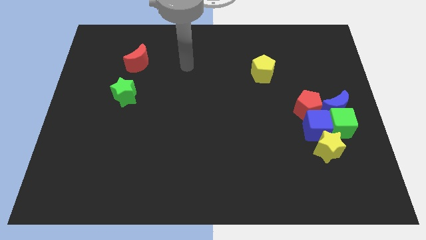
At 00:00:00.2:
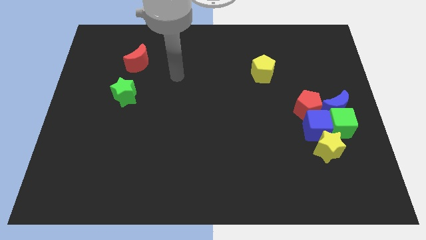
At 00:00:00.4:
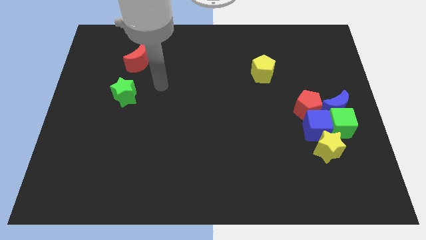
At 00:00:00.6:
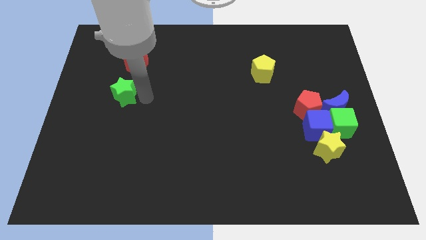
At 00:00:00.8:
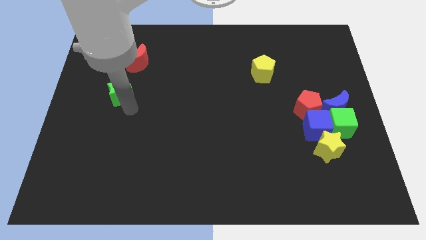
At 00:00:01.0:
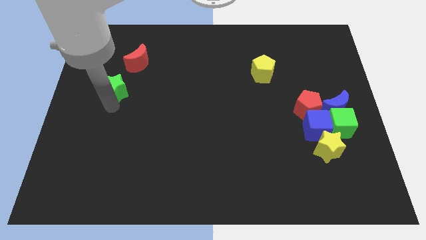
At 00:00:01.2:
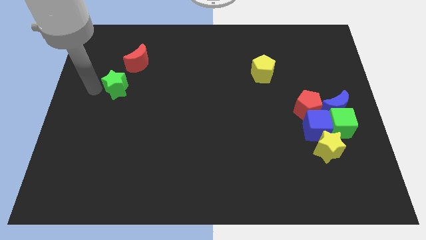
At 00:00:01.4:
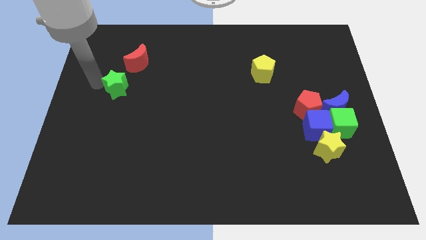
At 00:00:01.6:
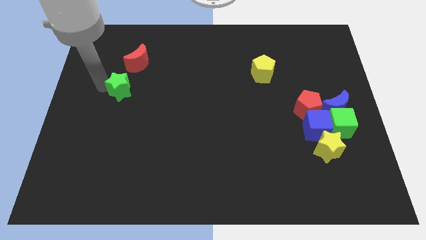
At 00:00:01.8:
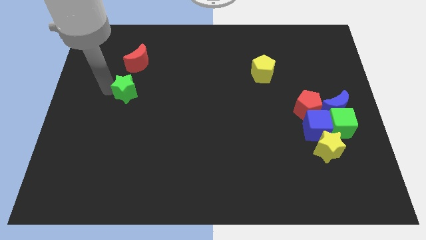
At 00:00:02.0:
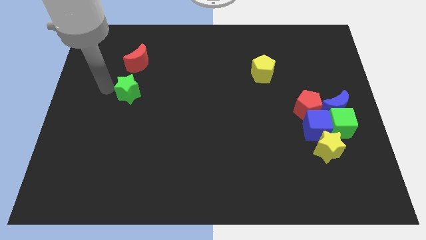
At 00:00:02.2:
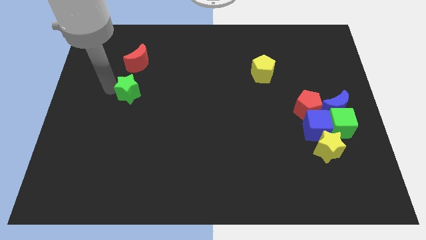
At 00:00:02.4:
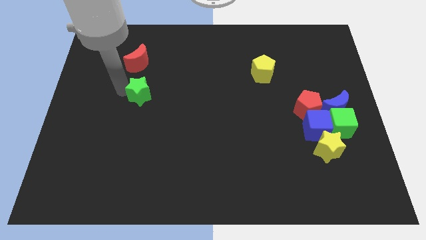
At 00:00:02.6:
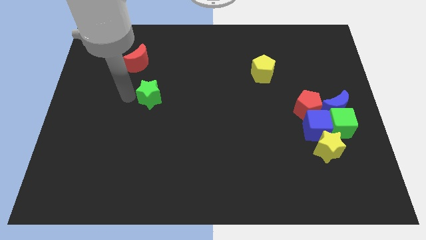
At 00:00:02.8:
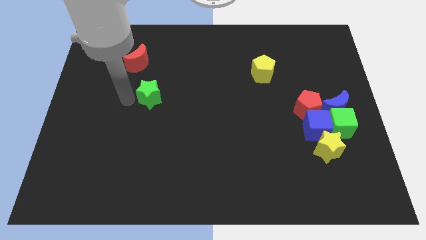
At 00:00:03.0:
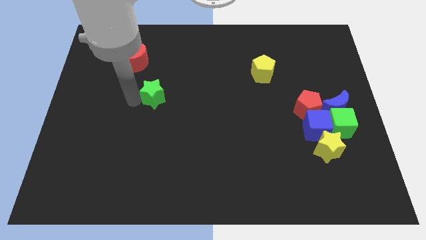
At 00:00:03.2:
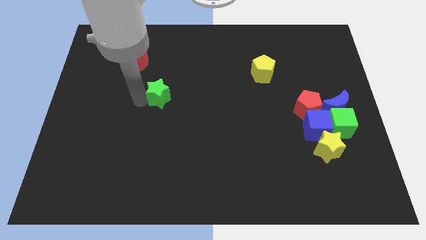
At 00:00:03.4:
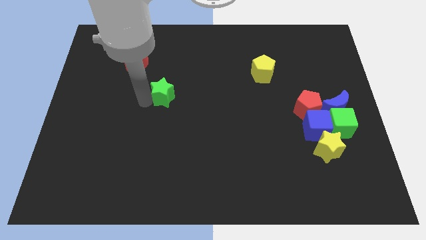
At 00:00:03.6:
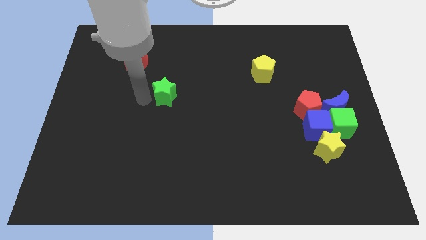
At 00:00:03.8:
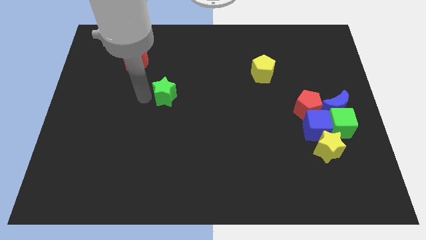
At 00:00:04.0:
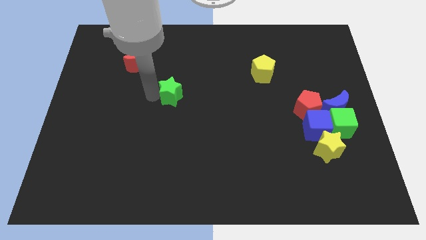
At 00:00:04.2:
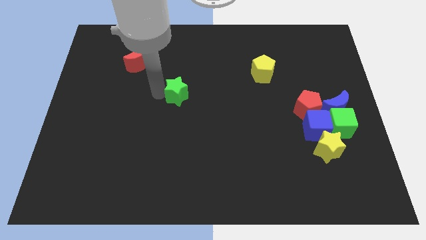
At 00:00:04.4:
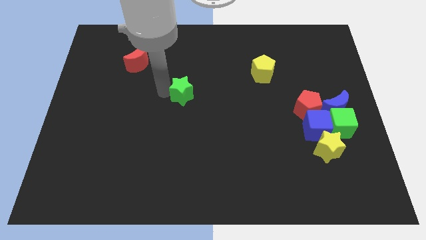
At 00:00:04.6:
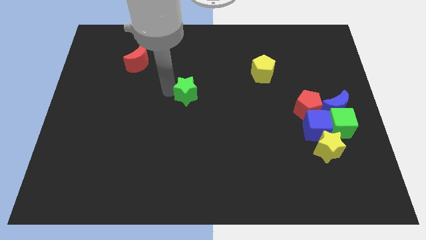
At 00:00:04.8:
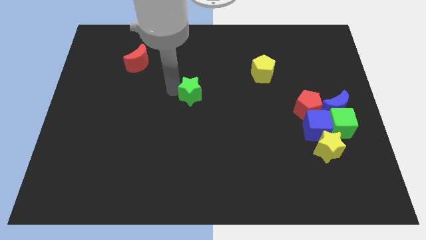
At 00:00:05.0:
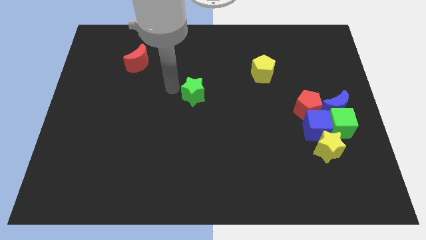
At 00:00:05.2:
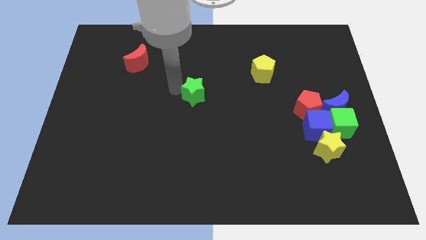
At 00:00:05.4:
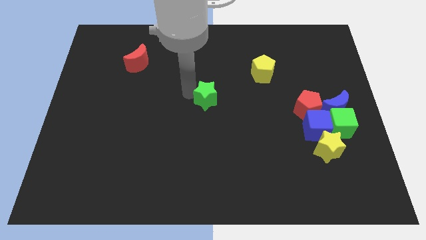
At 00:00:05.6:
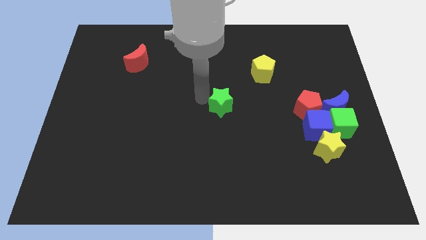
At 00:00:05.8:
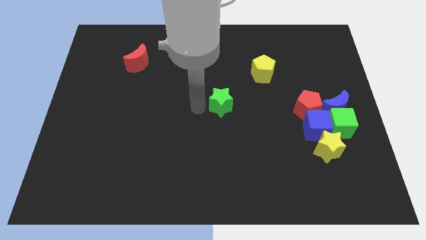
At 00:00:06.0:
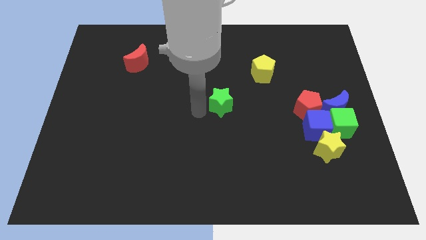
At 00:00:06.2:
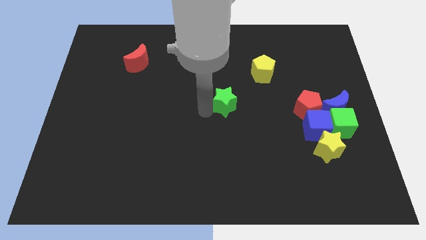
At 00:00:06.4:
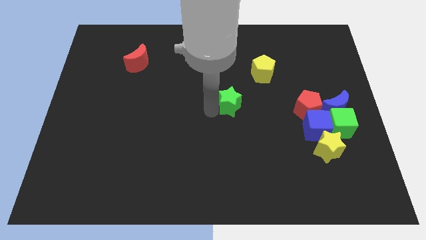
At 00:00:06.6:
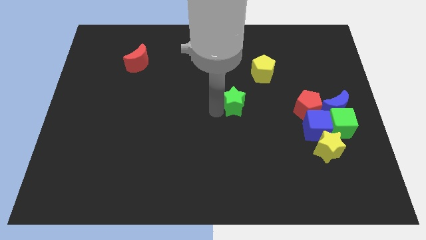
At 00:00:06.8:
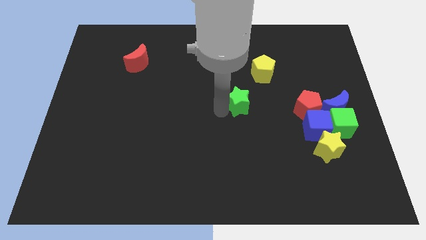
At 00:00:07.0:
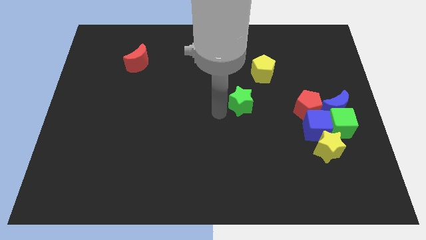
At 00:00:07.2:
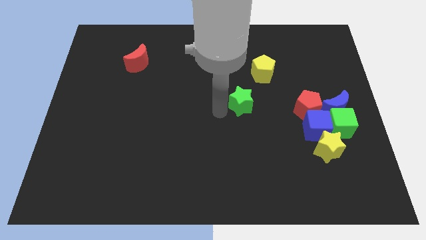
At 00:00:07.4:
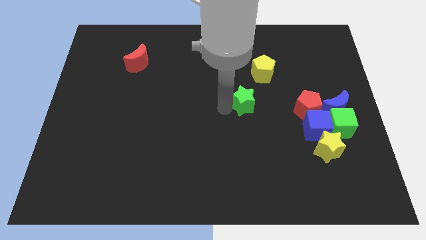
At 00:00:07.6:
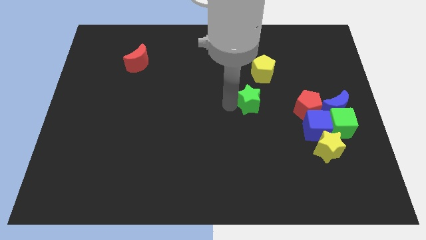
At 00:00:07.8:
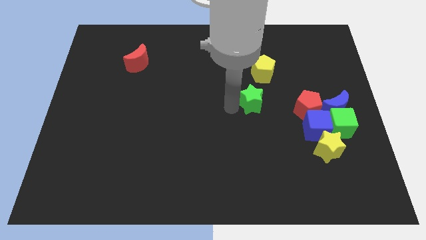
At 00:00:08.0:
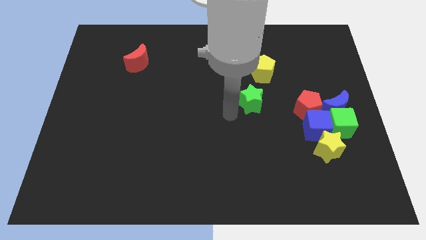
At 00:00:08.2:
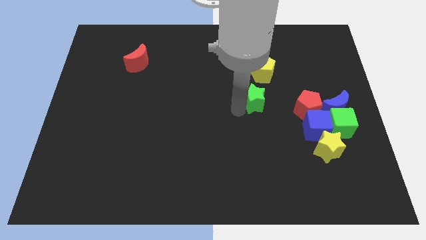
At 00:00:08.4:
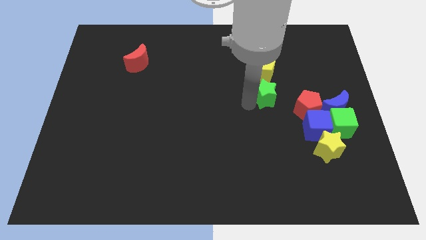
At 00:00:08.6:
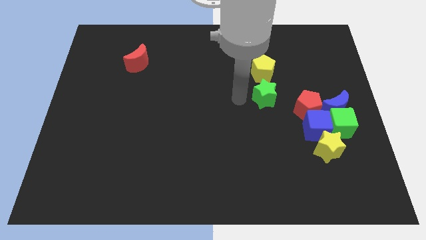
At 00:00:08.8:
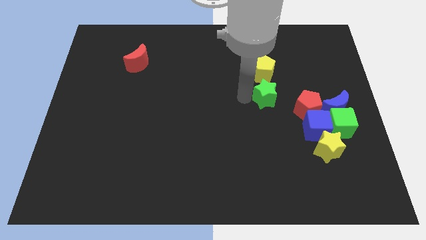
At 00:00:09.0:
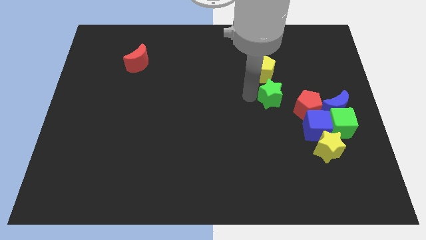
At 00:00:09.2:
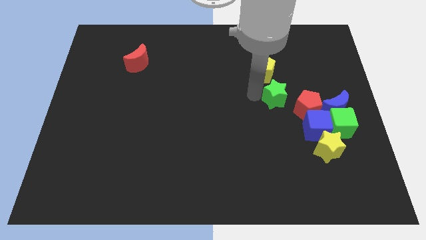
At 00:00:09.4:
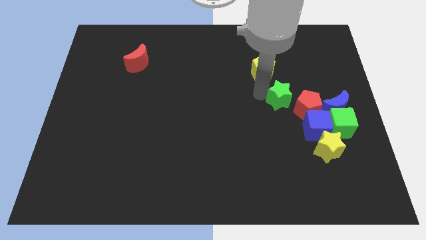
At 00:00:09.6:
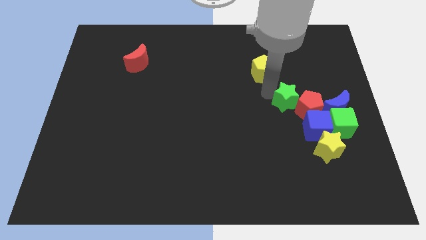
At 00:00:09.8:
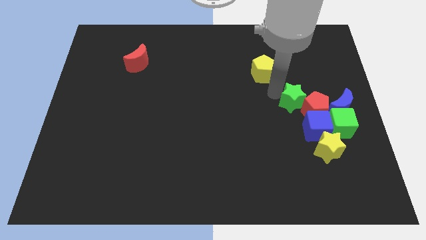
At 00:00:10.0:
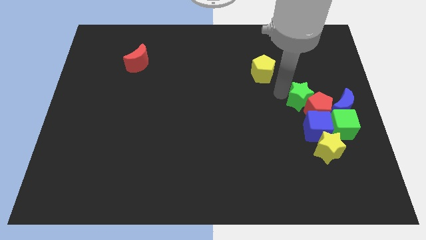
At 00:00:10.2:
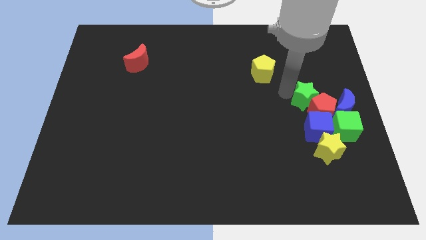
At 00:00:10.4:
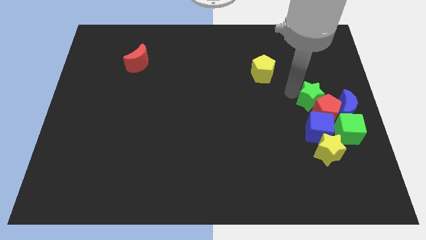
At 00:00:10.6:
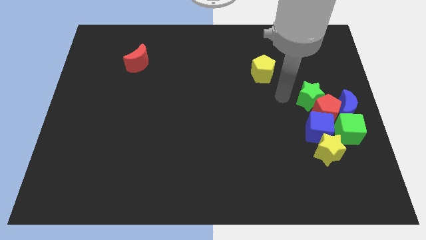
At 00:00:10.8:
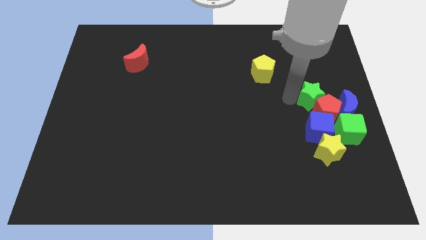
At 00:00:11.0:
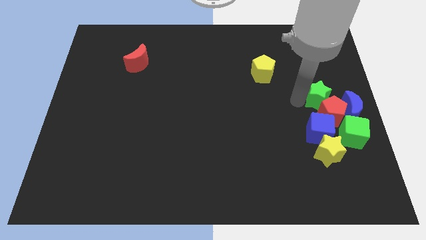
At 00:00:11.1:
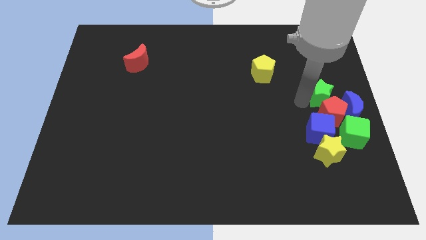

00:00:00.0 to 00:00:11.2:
move the green star to the right side of the board

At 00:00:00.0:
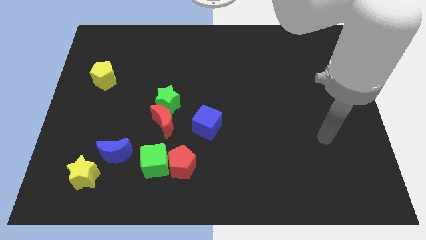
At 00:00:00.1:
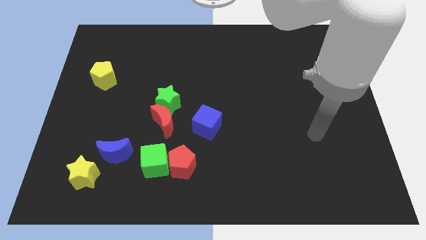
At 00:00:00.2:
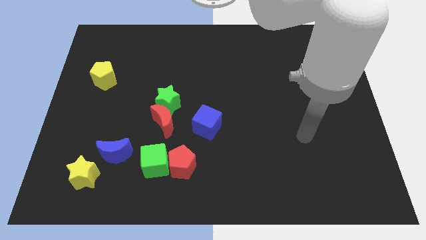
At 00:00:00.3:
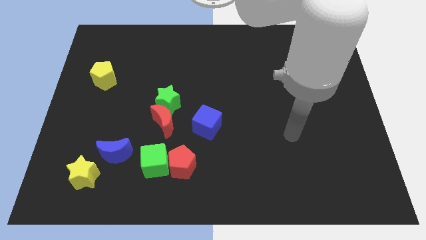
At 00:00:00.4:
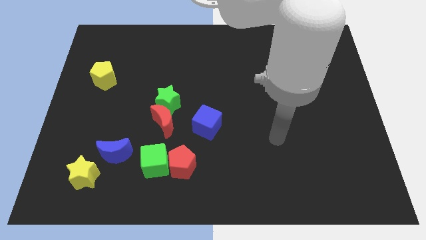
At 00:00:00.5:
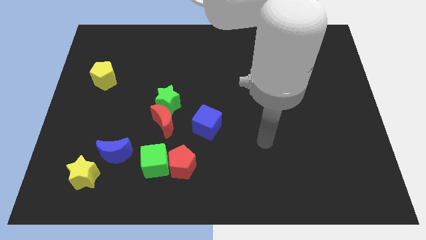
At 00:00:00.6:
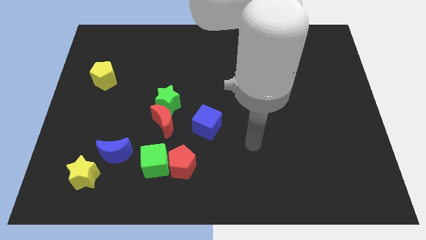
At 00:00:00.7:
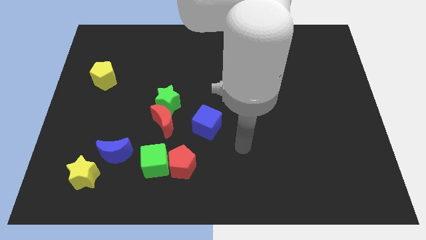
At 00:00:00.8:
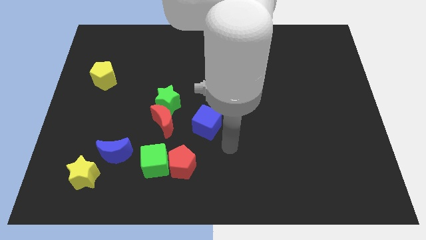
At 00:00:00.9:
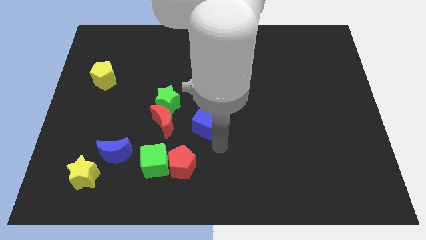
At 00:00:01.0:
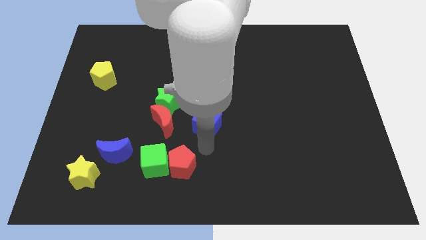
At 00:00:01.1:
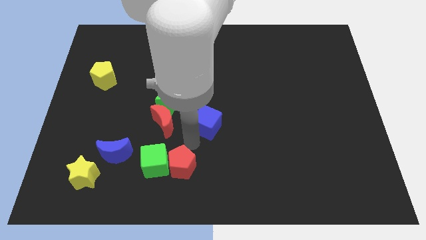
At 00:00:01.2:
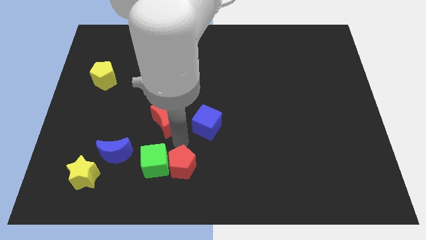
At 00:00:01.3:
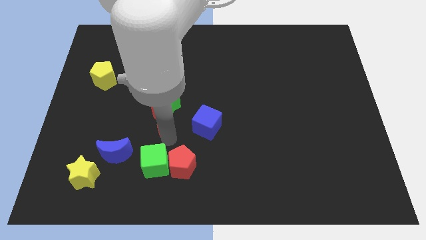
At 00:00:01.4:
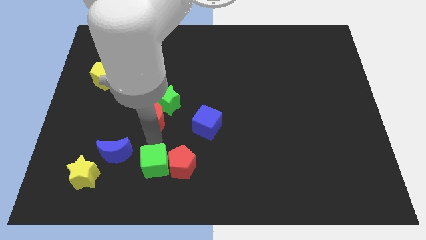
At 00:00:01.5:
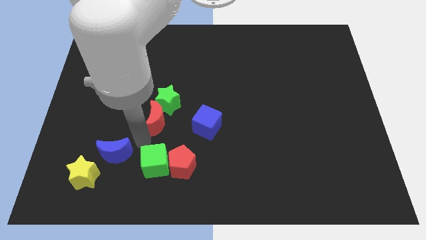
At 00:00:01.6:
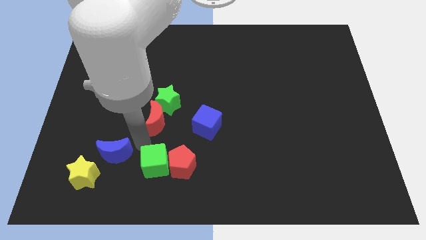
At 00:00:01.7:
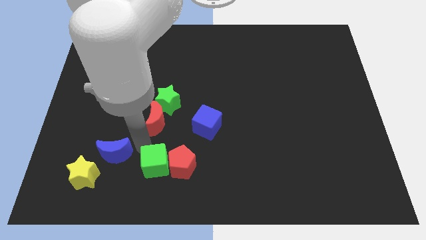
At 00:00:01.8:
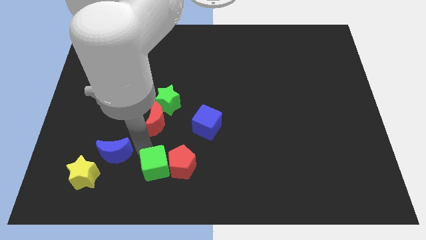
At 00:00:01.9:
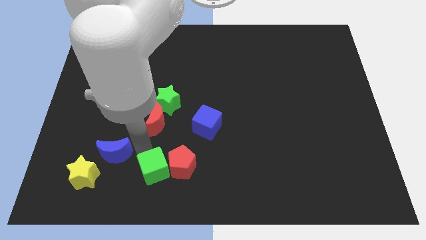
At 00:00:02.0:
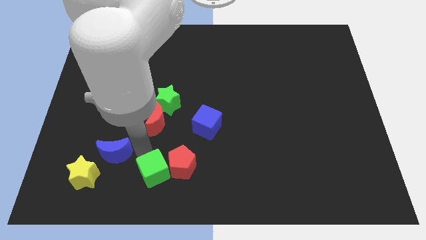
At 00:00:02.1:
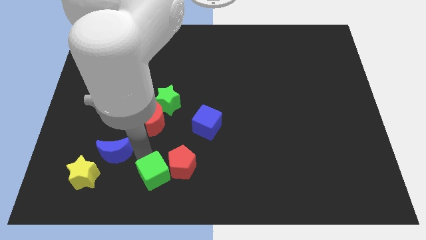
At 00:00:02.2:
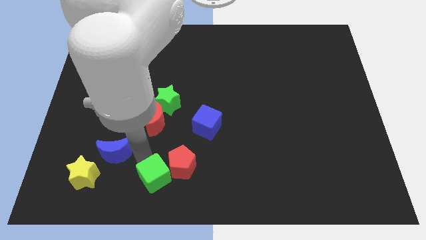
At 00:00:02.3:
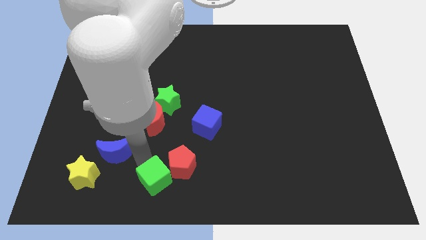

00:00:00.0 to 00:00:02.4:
slide the green cube to the bottom
